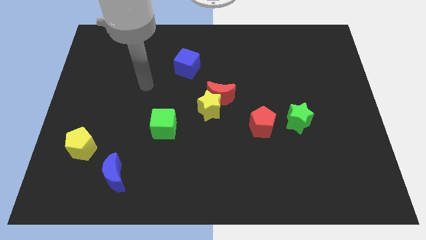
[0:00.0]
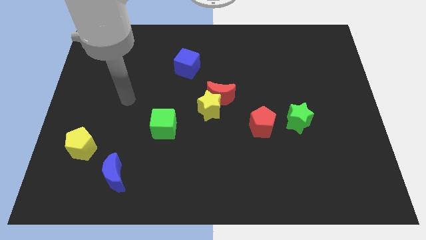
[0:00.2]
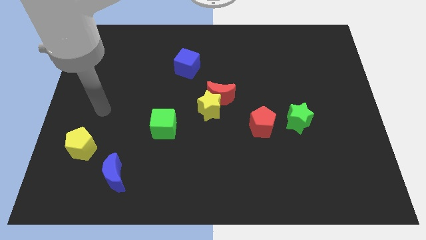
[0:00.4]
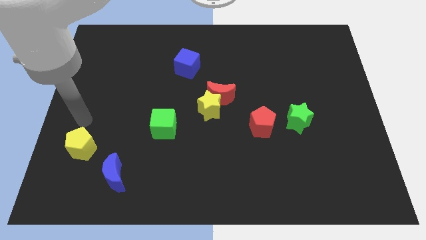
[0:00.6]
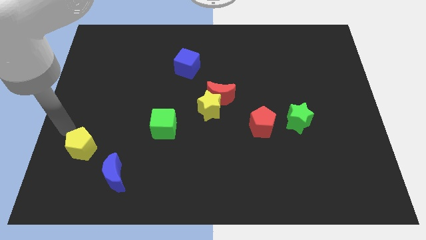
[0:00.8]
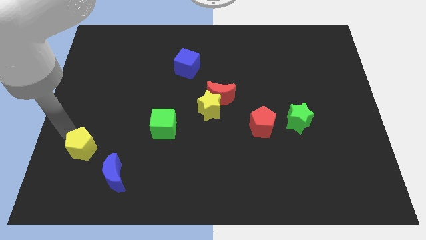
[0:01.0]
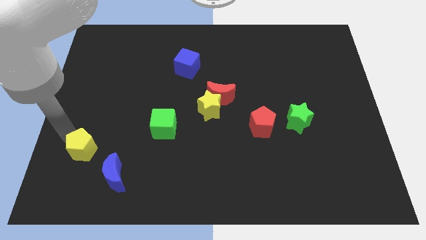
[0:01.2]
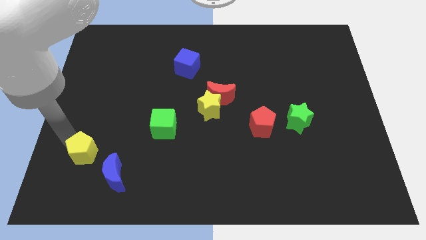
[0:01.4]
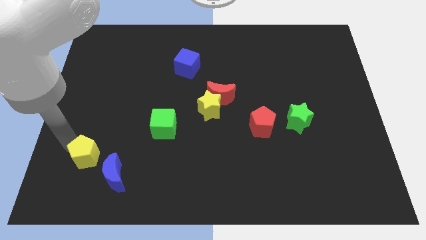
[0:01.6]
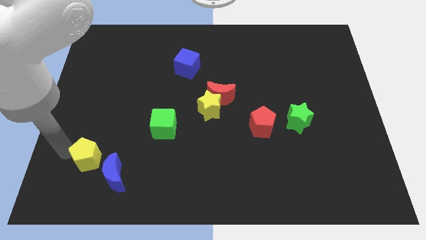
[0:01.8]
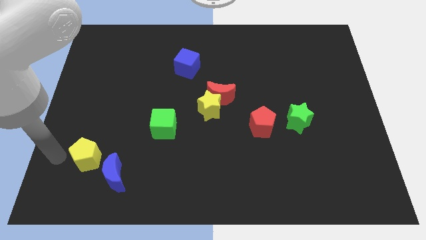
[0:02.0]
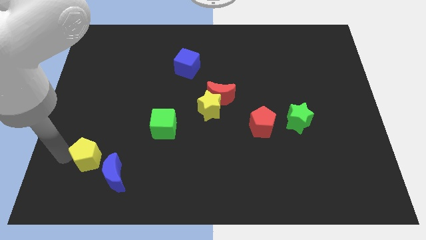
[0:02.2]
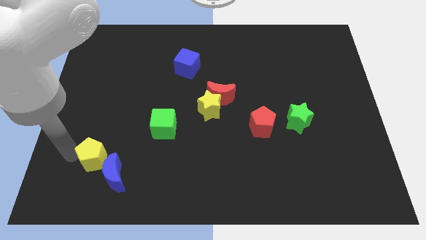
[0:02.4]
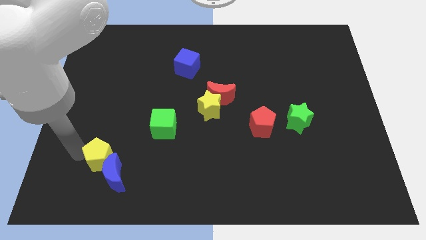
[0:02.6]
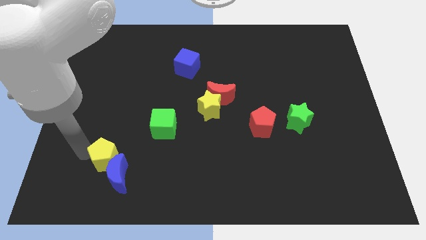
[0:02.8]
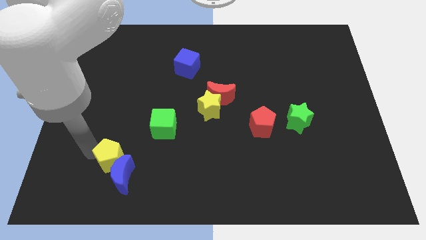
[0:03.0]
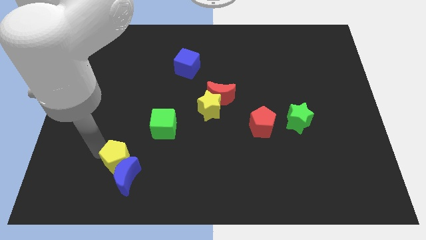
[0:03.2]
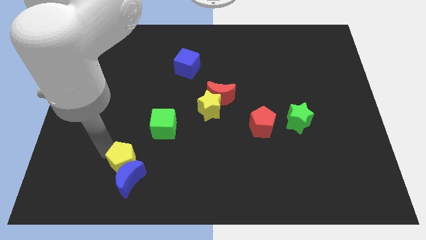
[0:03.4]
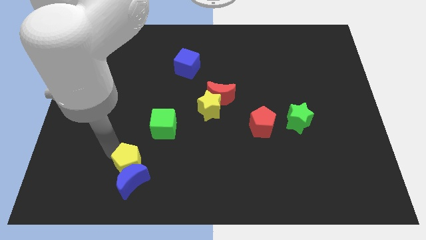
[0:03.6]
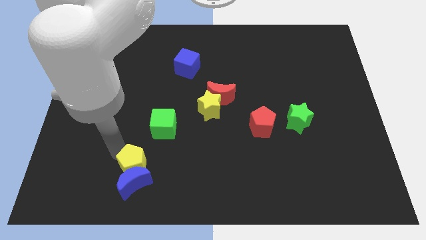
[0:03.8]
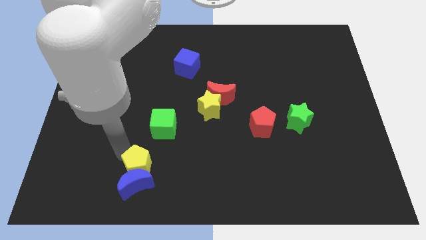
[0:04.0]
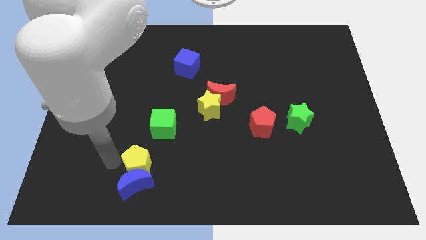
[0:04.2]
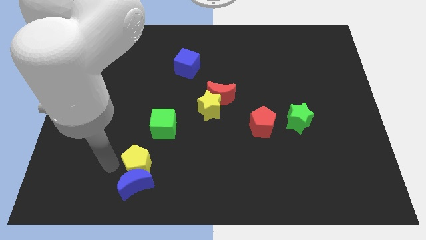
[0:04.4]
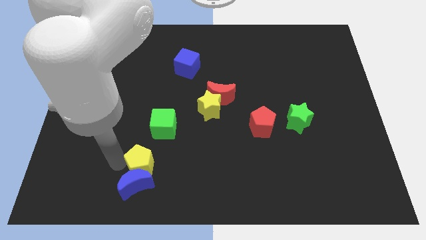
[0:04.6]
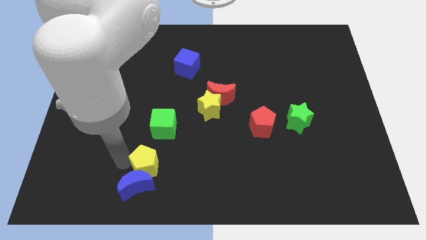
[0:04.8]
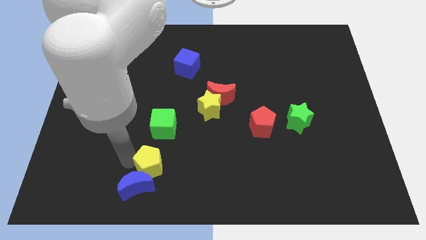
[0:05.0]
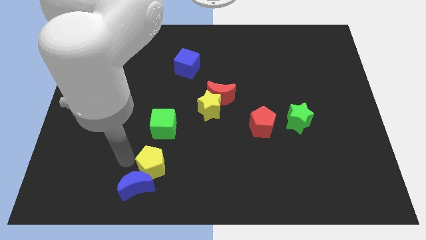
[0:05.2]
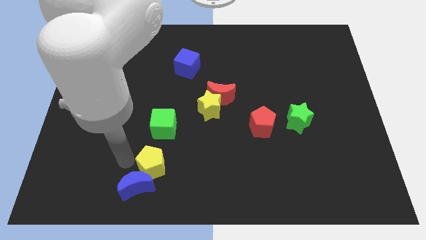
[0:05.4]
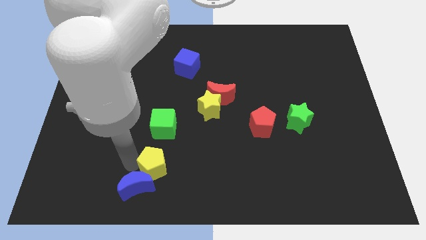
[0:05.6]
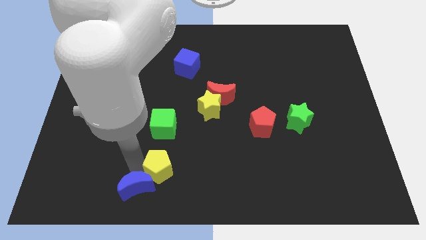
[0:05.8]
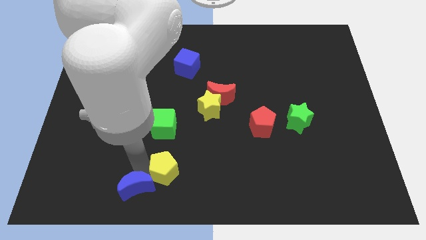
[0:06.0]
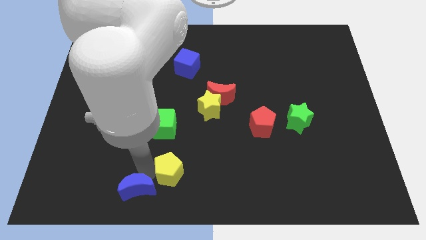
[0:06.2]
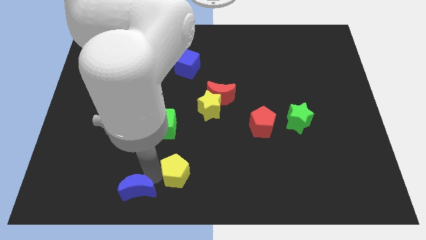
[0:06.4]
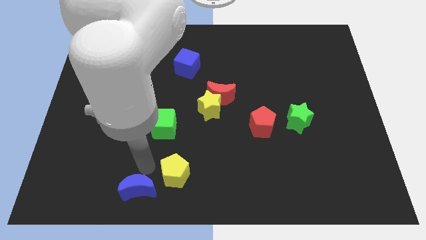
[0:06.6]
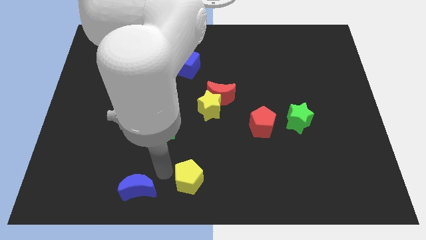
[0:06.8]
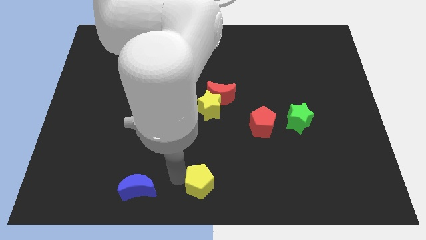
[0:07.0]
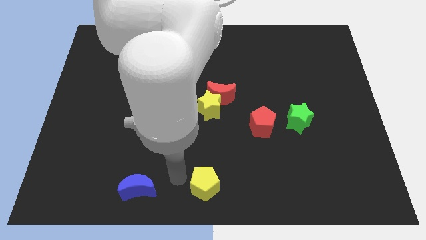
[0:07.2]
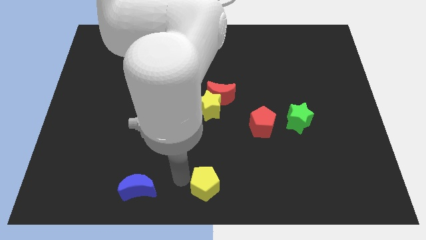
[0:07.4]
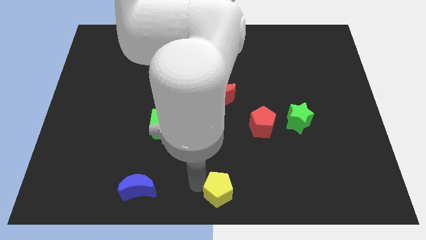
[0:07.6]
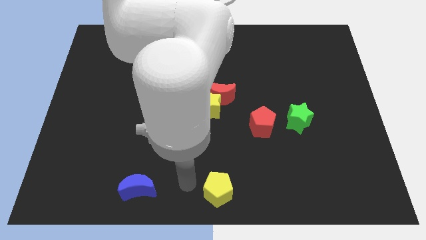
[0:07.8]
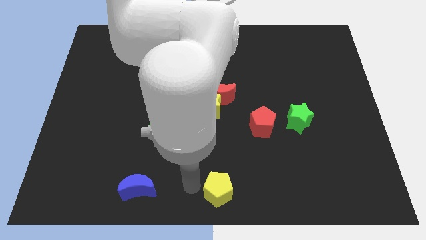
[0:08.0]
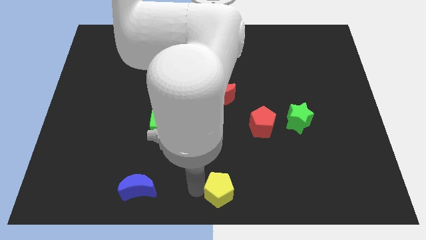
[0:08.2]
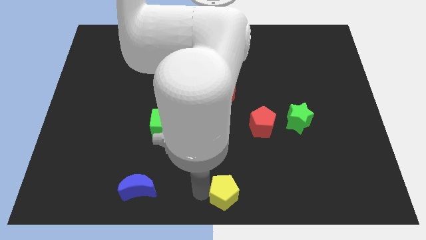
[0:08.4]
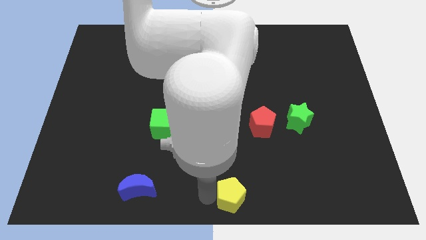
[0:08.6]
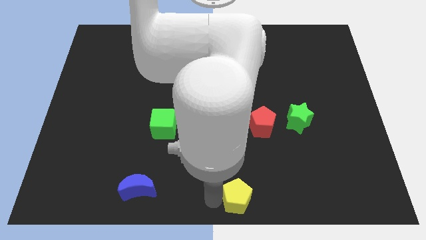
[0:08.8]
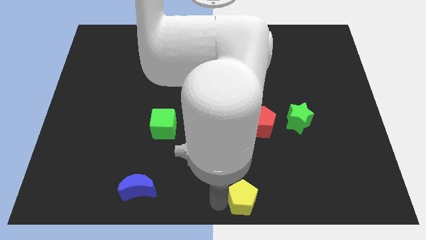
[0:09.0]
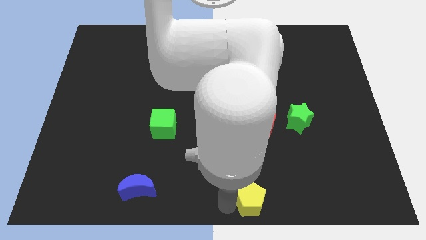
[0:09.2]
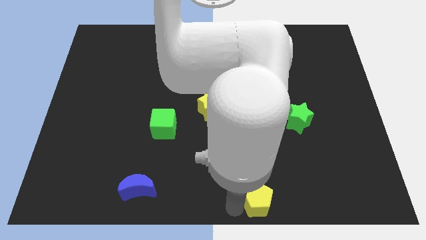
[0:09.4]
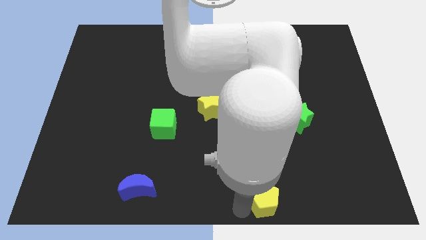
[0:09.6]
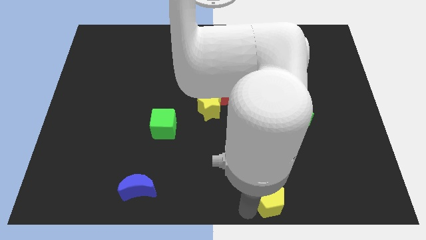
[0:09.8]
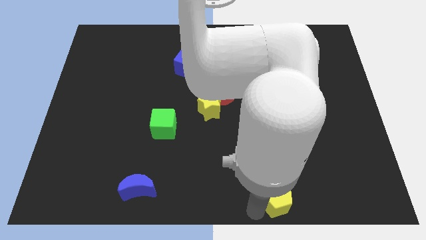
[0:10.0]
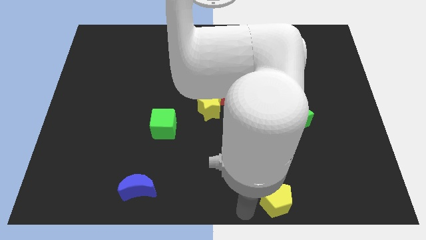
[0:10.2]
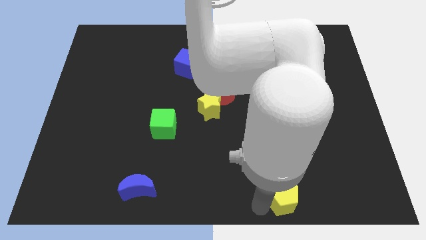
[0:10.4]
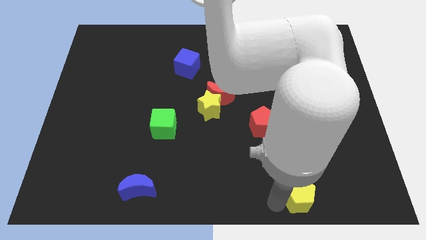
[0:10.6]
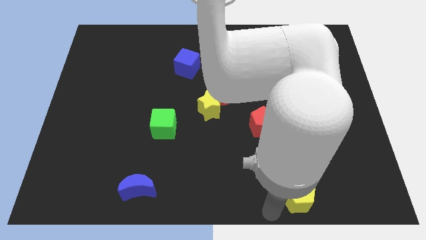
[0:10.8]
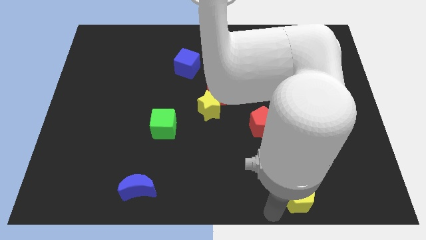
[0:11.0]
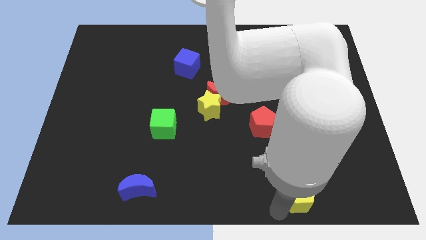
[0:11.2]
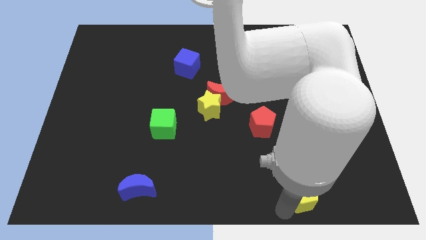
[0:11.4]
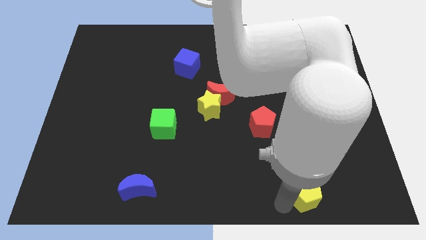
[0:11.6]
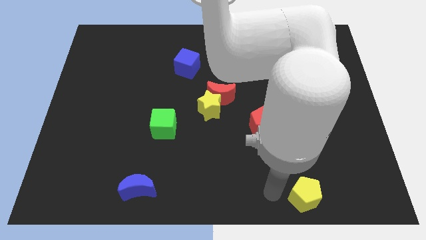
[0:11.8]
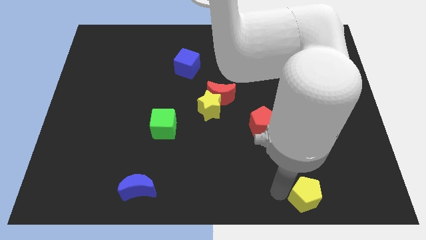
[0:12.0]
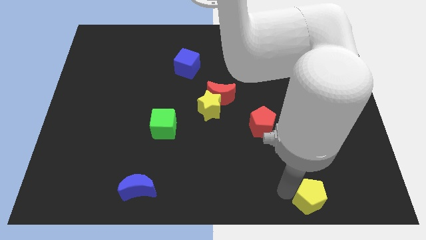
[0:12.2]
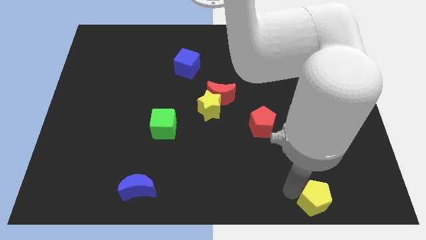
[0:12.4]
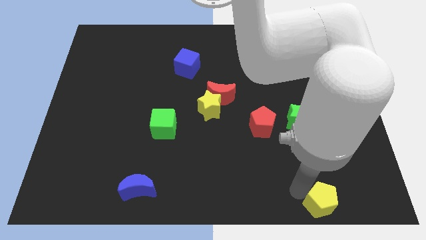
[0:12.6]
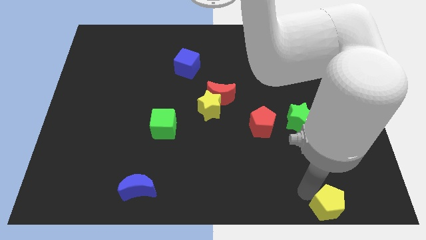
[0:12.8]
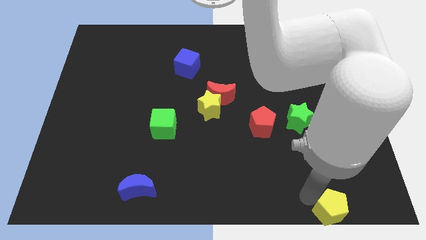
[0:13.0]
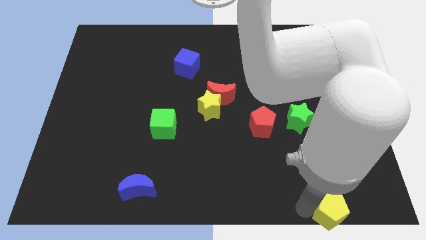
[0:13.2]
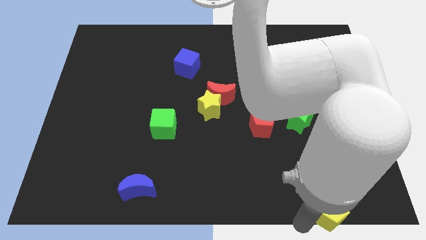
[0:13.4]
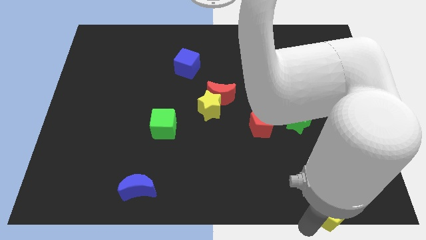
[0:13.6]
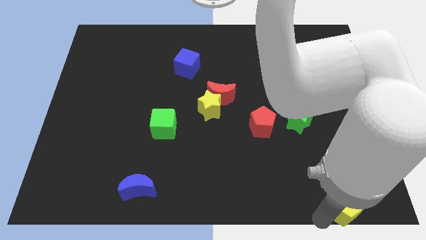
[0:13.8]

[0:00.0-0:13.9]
slide the yellow pentagon to the bottom right of the board
